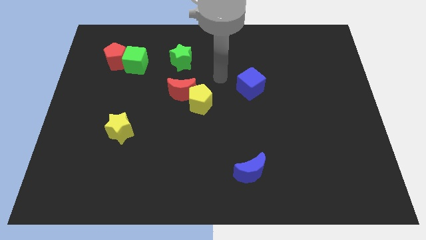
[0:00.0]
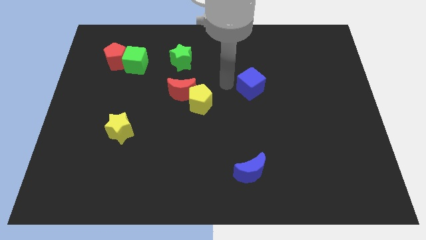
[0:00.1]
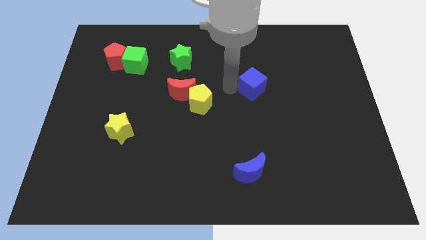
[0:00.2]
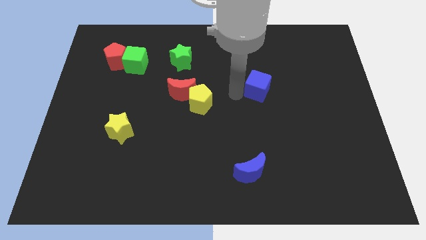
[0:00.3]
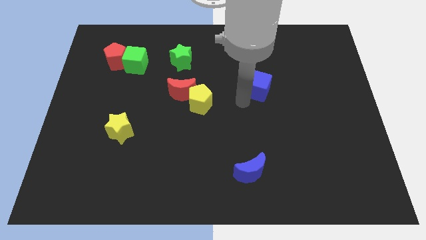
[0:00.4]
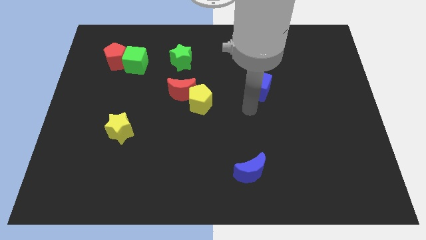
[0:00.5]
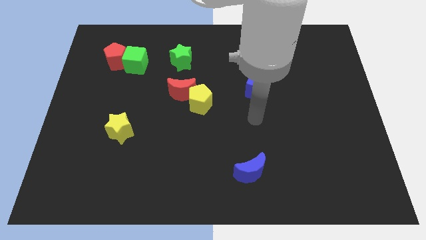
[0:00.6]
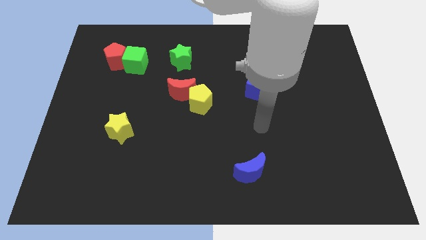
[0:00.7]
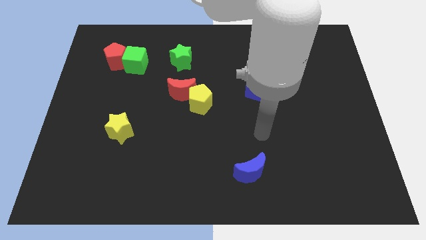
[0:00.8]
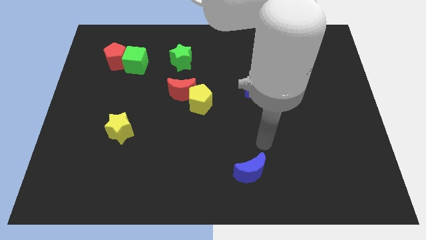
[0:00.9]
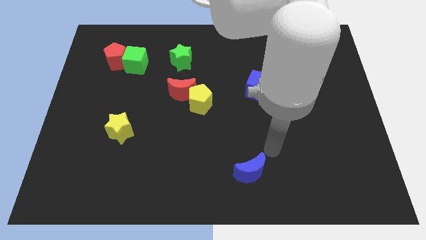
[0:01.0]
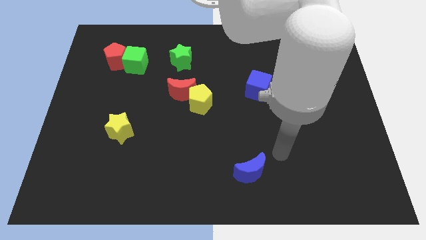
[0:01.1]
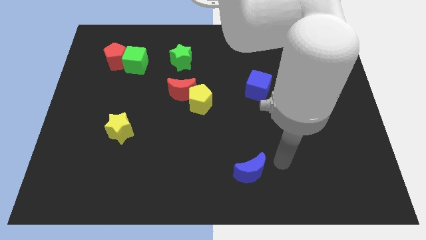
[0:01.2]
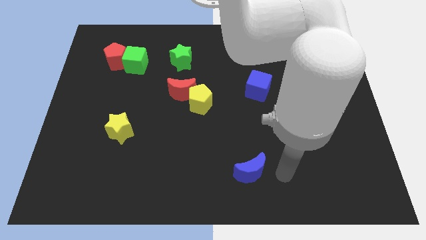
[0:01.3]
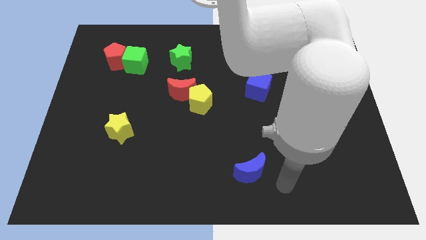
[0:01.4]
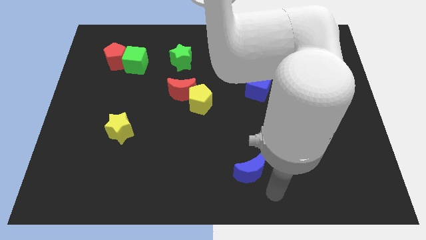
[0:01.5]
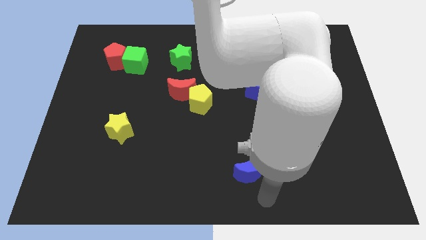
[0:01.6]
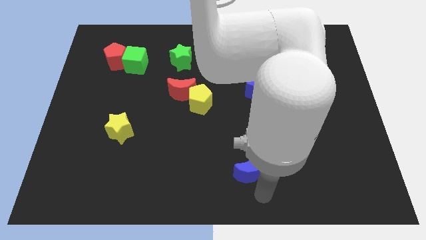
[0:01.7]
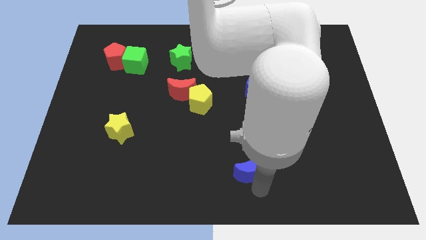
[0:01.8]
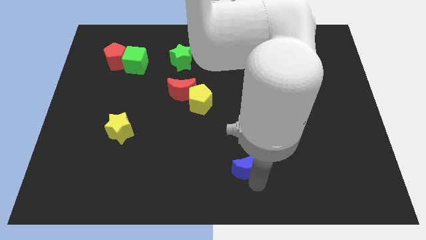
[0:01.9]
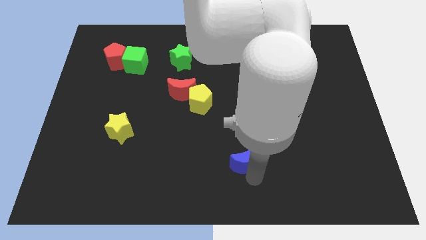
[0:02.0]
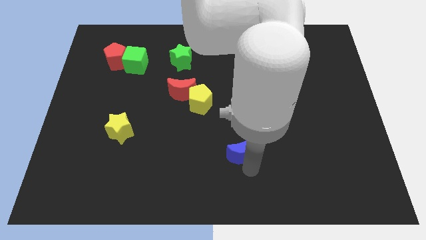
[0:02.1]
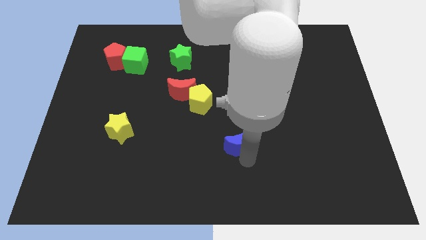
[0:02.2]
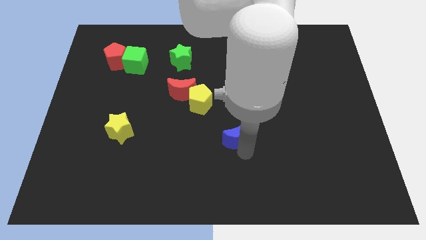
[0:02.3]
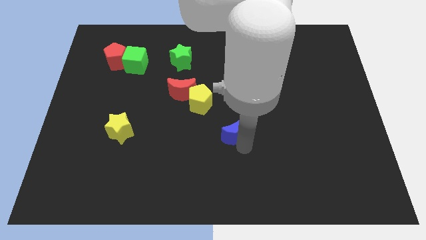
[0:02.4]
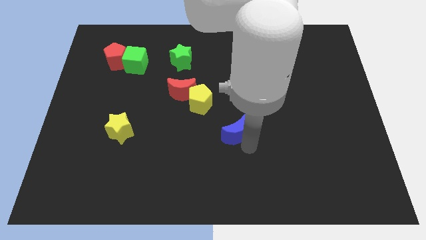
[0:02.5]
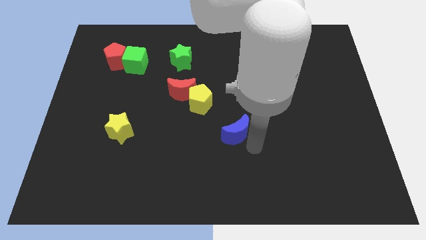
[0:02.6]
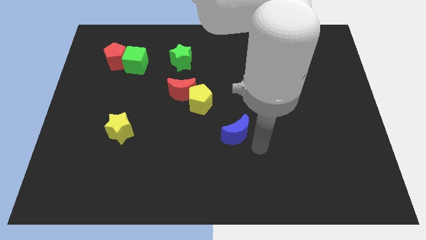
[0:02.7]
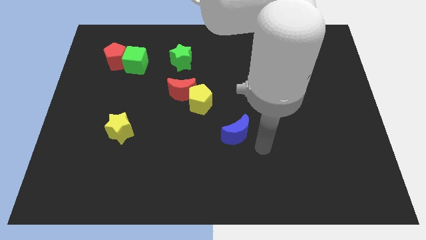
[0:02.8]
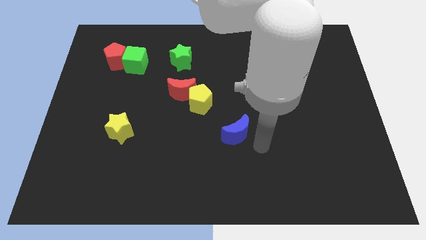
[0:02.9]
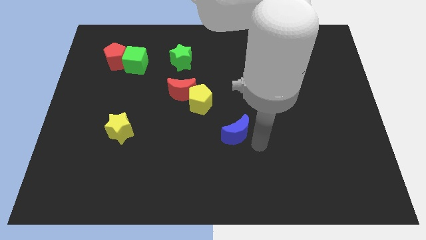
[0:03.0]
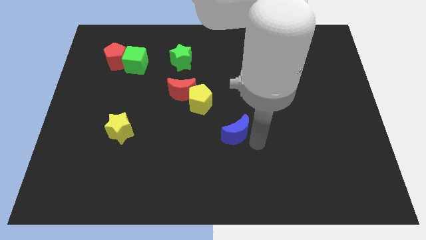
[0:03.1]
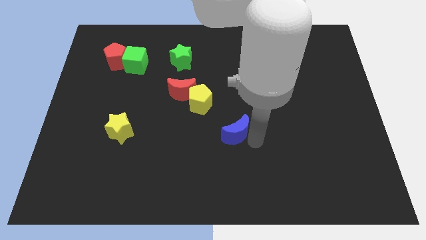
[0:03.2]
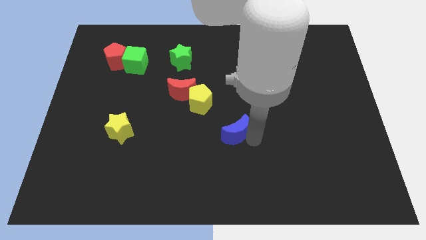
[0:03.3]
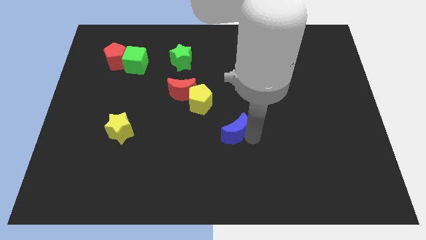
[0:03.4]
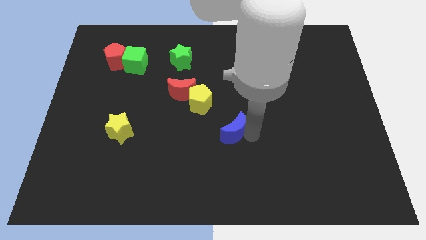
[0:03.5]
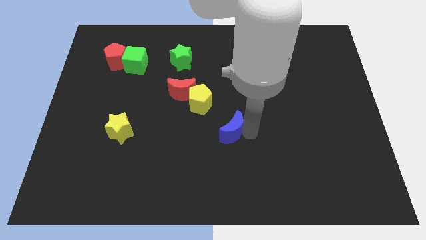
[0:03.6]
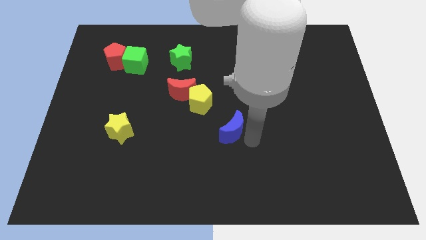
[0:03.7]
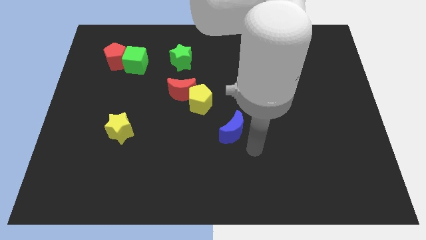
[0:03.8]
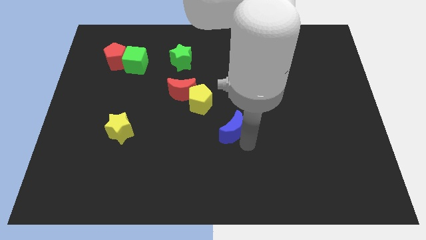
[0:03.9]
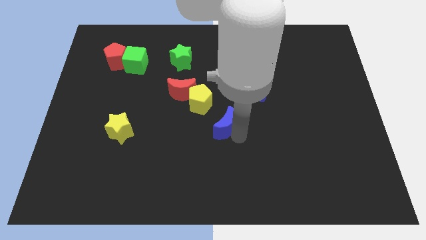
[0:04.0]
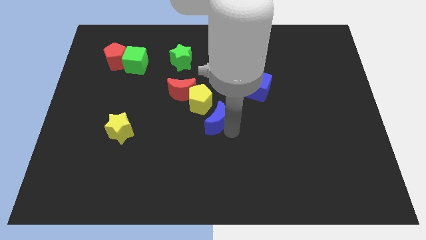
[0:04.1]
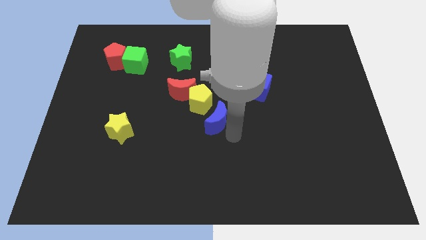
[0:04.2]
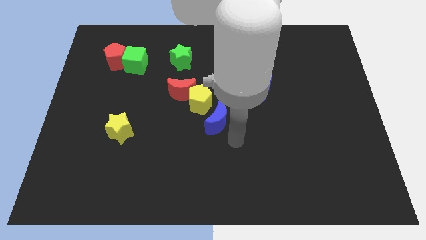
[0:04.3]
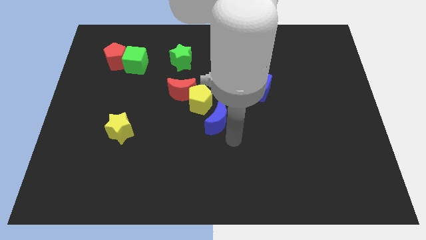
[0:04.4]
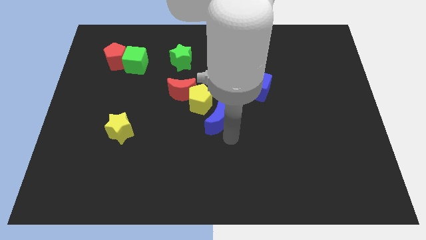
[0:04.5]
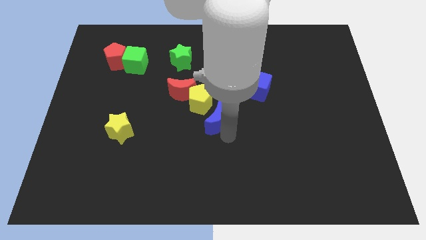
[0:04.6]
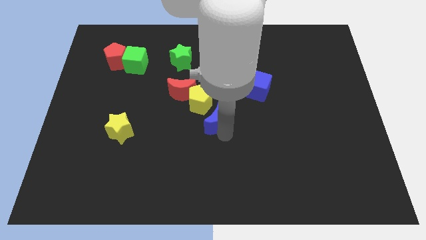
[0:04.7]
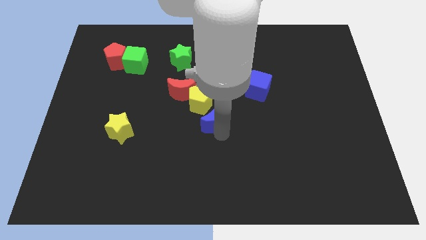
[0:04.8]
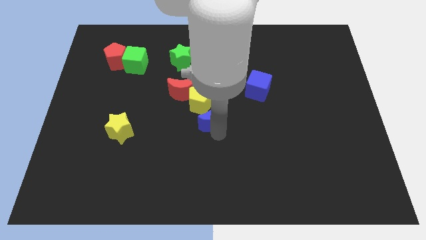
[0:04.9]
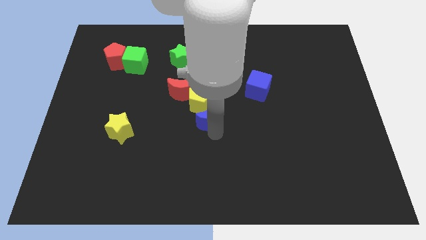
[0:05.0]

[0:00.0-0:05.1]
put the blue moon to the yellow pentagon

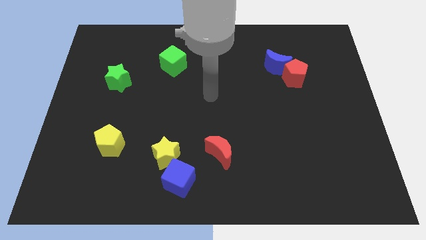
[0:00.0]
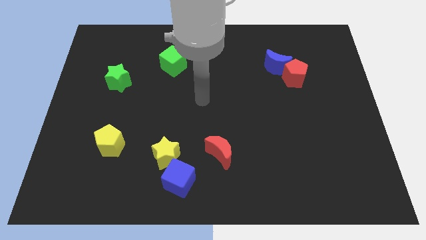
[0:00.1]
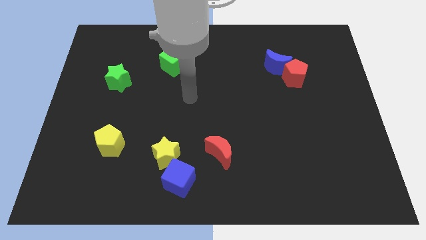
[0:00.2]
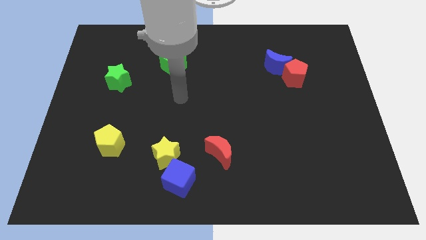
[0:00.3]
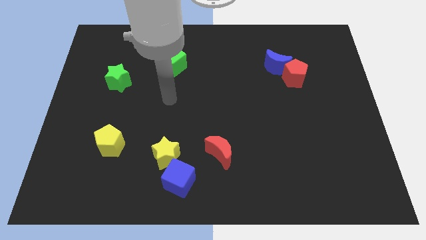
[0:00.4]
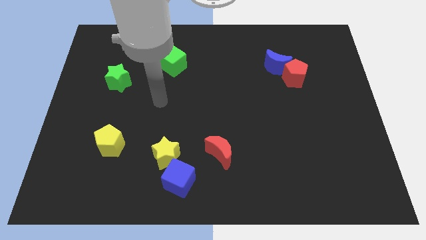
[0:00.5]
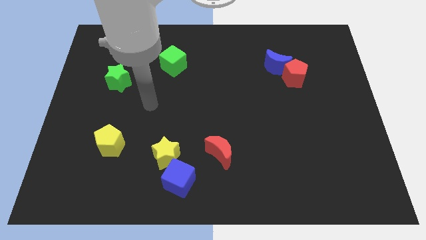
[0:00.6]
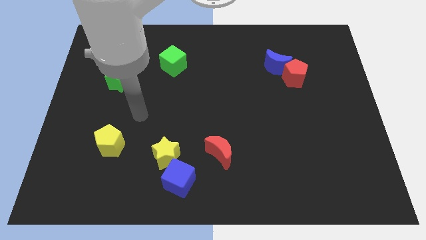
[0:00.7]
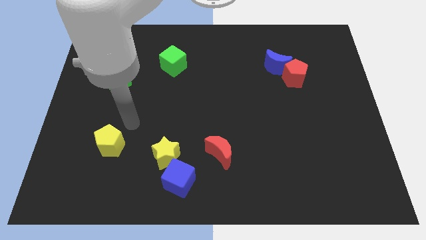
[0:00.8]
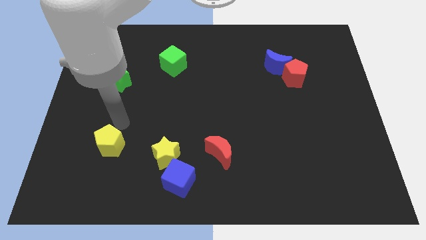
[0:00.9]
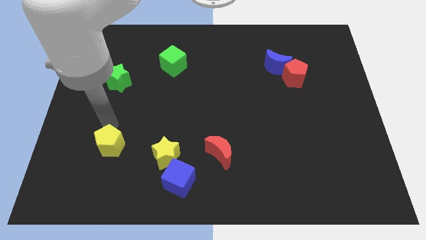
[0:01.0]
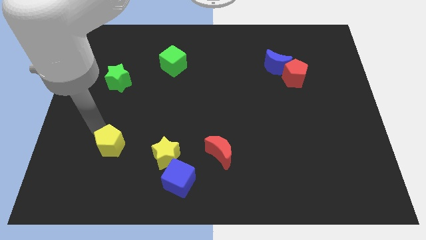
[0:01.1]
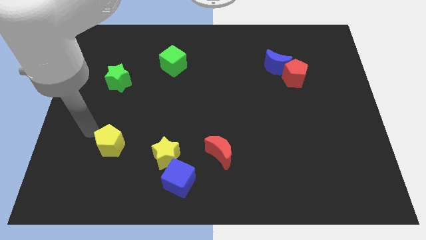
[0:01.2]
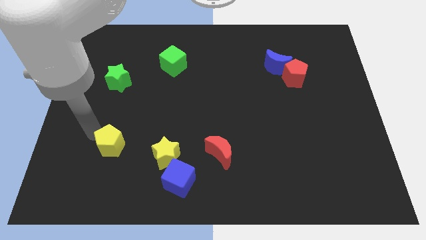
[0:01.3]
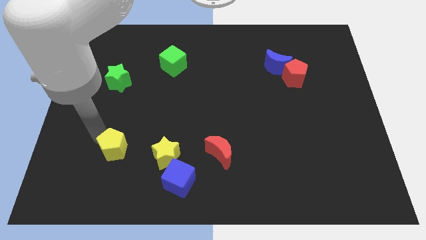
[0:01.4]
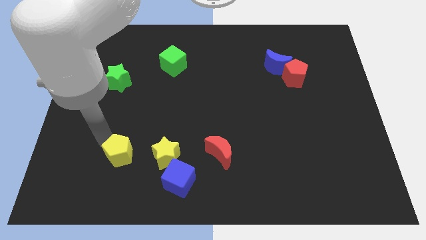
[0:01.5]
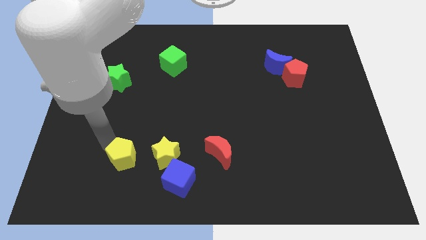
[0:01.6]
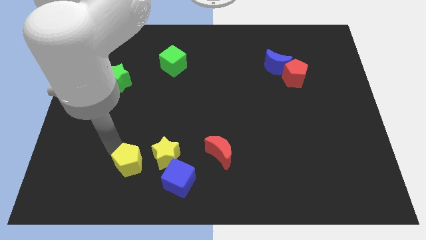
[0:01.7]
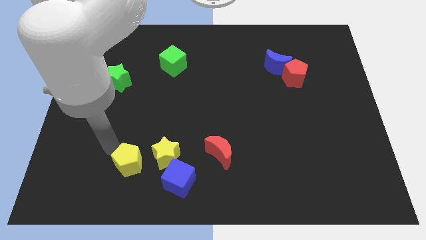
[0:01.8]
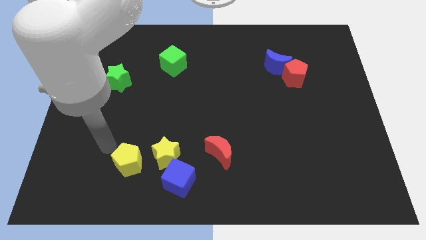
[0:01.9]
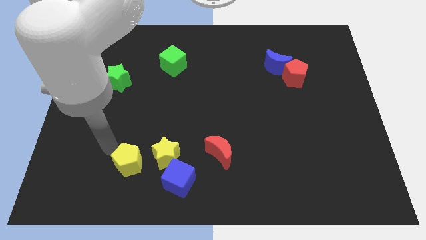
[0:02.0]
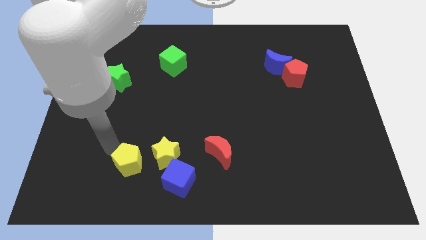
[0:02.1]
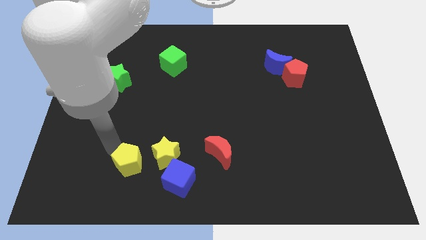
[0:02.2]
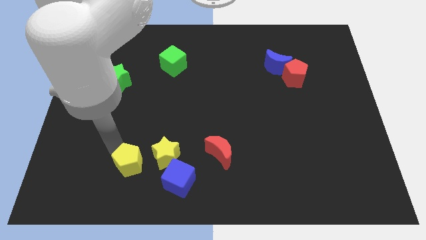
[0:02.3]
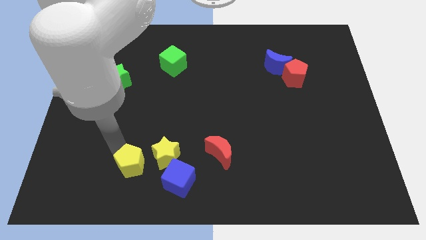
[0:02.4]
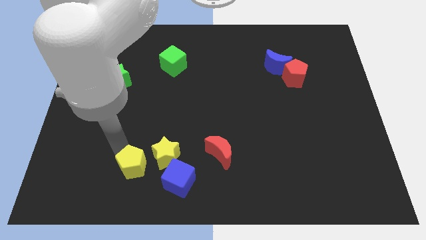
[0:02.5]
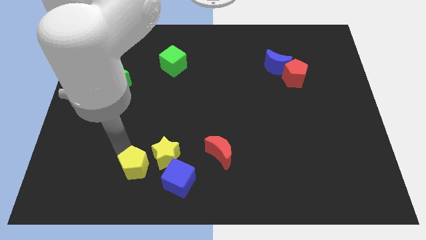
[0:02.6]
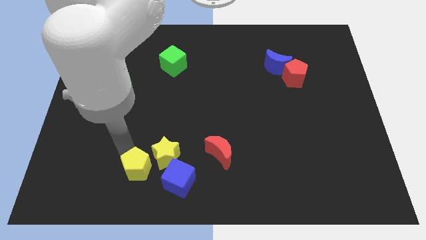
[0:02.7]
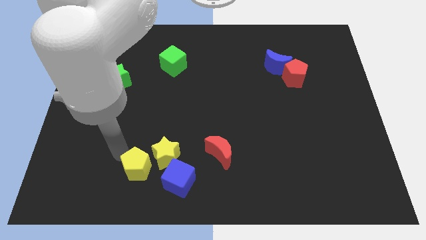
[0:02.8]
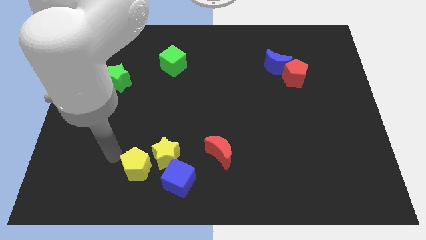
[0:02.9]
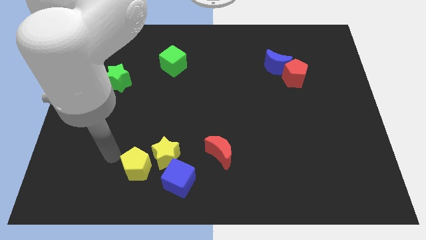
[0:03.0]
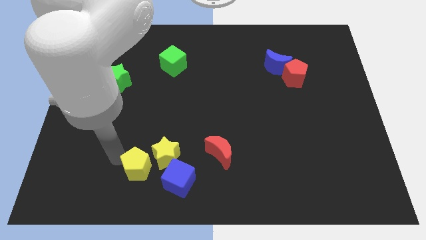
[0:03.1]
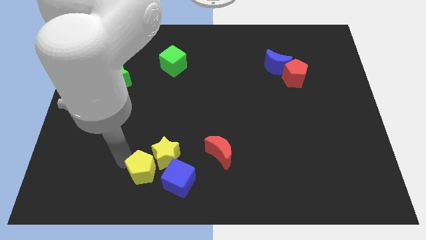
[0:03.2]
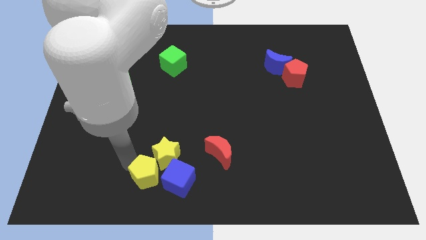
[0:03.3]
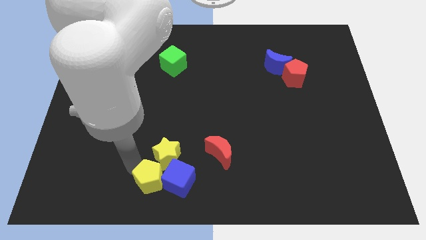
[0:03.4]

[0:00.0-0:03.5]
slide the yellow pentagon to the blue cube
